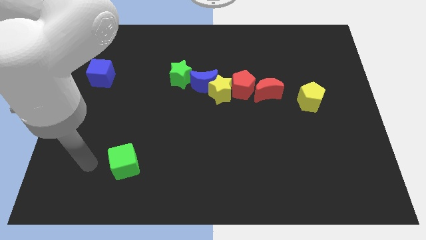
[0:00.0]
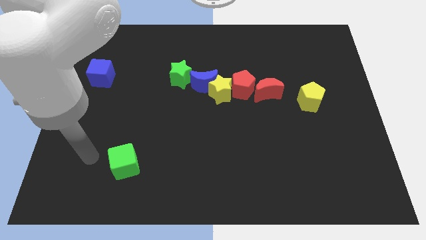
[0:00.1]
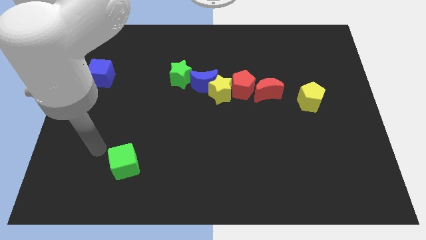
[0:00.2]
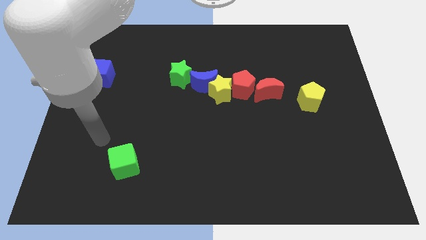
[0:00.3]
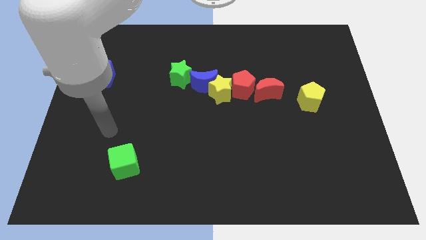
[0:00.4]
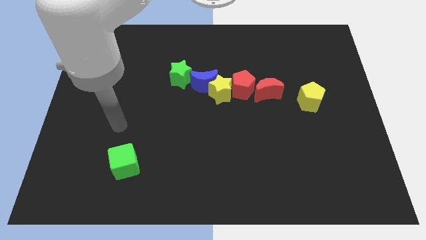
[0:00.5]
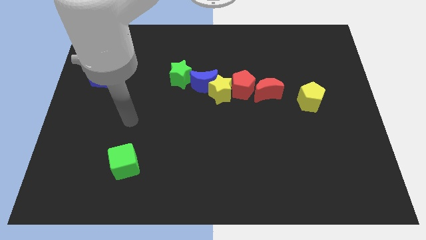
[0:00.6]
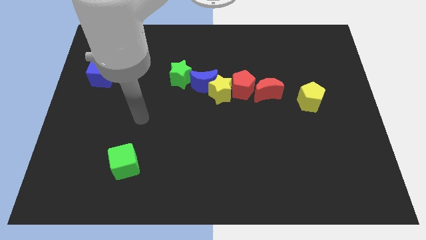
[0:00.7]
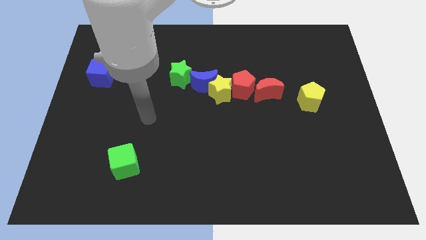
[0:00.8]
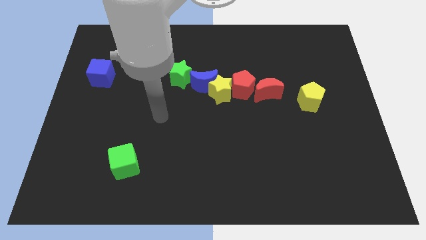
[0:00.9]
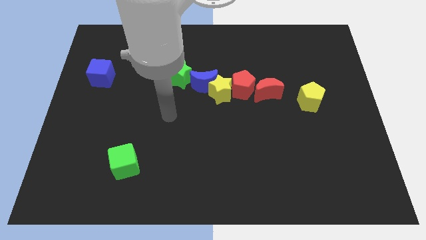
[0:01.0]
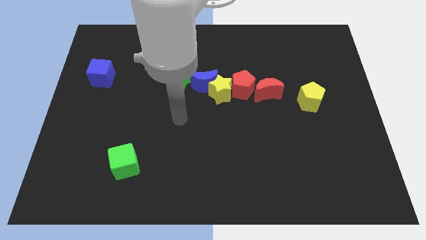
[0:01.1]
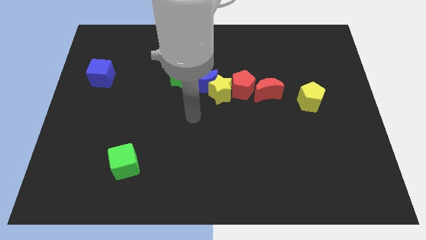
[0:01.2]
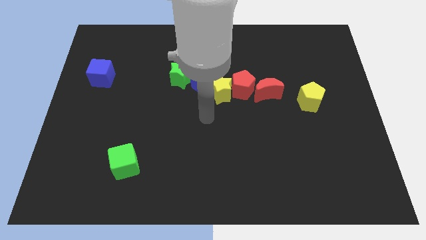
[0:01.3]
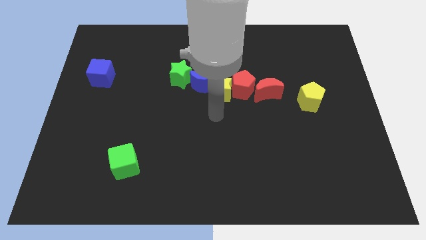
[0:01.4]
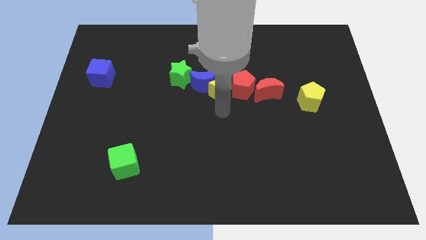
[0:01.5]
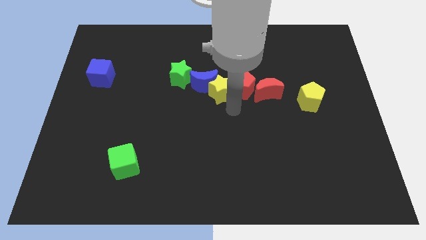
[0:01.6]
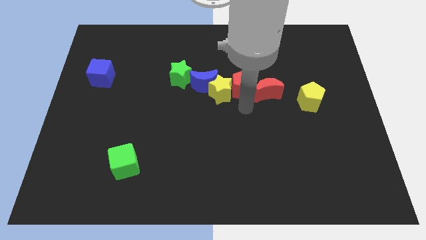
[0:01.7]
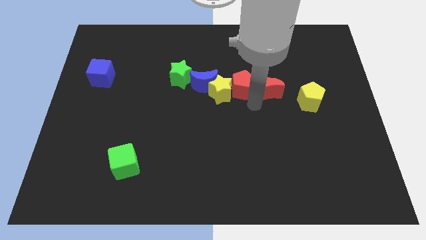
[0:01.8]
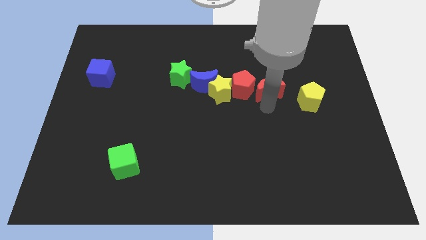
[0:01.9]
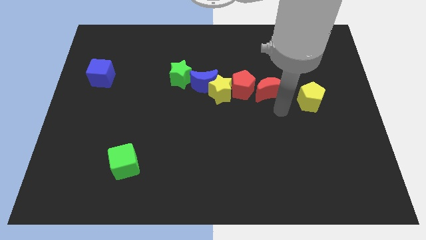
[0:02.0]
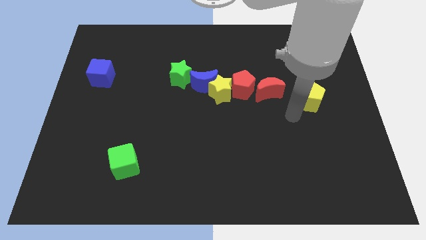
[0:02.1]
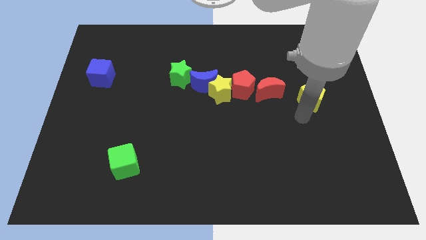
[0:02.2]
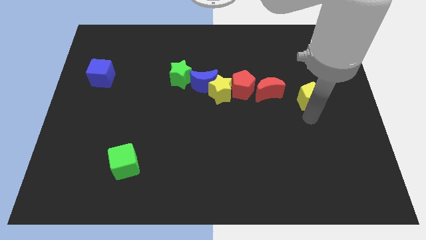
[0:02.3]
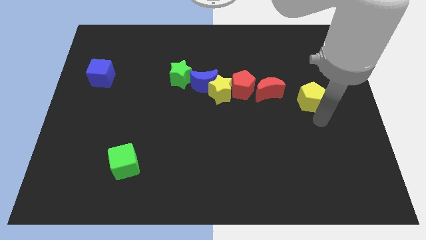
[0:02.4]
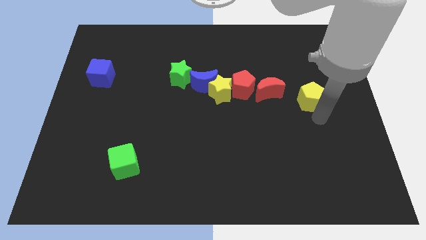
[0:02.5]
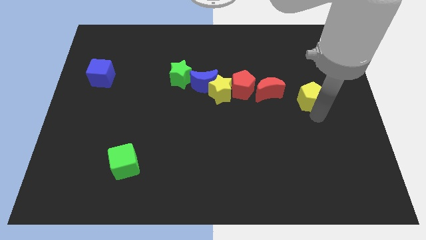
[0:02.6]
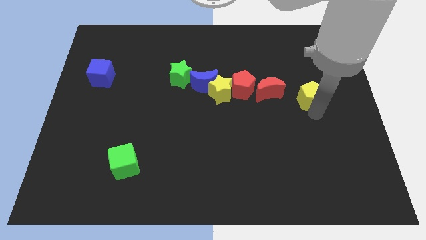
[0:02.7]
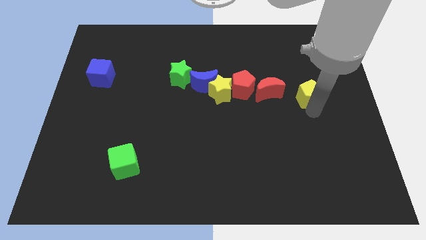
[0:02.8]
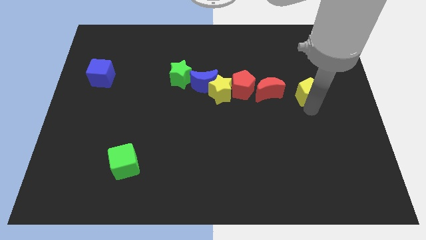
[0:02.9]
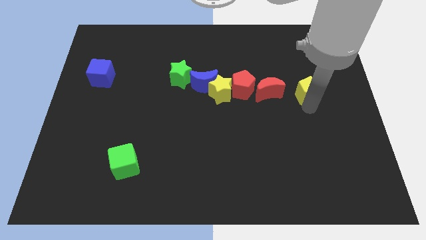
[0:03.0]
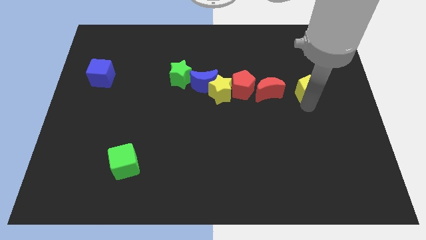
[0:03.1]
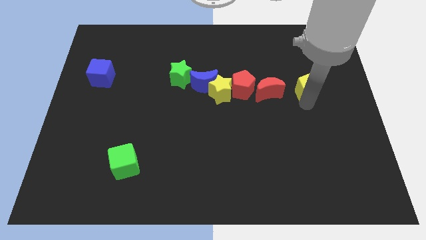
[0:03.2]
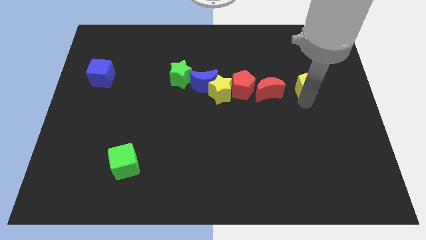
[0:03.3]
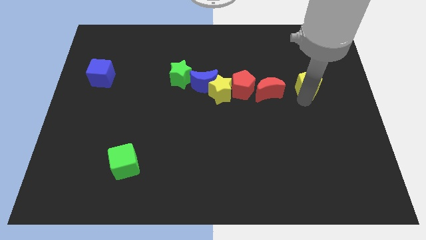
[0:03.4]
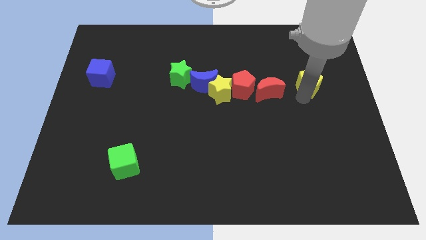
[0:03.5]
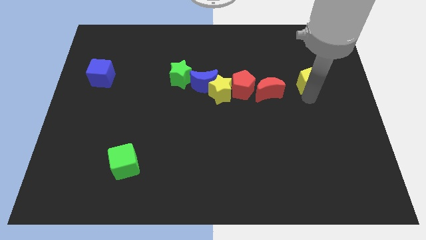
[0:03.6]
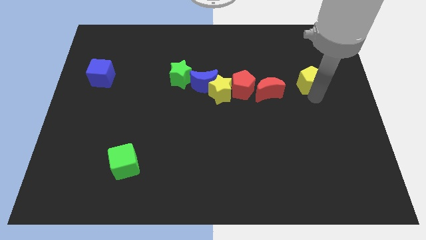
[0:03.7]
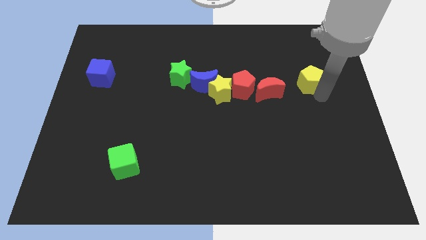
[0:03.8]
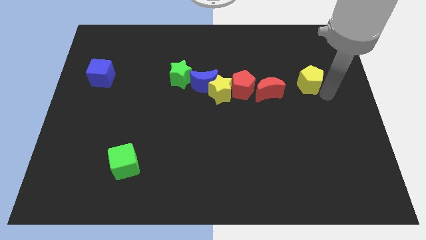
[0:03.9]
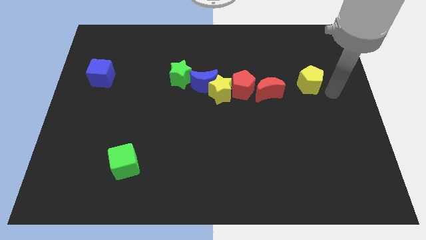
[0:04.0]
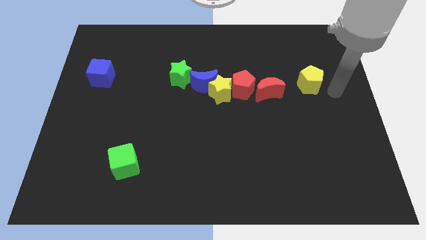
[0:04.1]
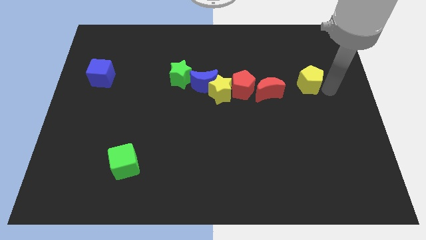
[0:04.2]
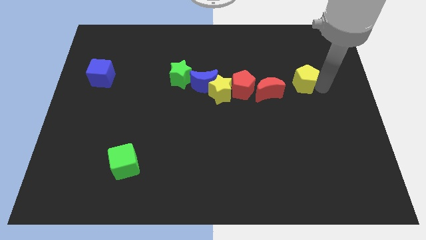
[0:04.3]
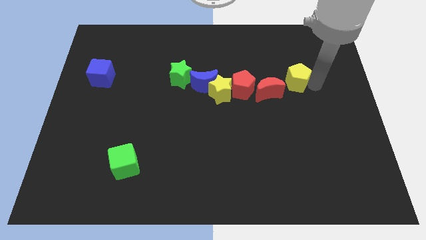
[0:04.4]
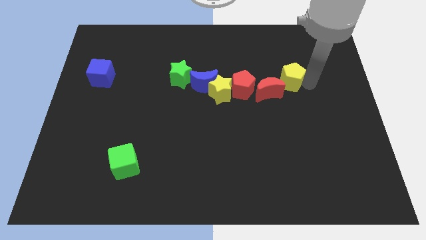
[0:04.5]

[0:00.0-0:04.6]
move the yellow pentagon a little bit up and then left

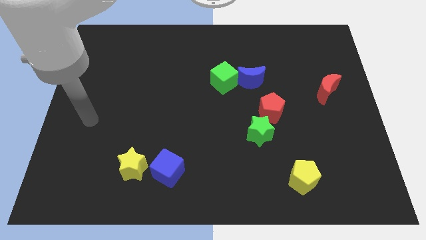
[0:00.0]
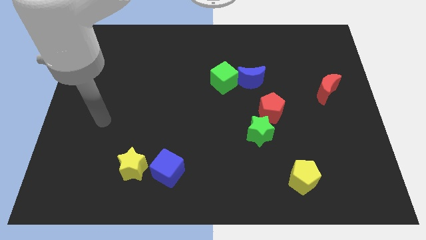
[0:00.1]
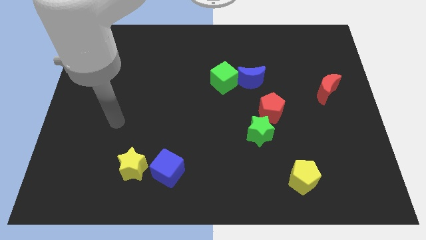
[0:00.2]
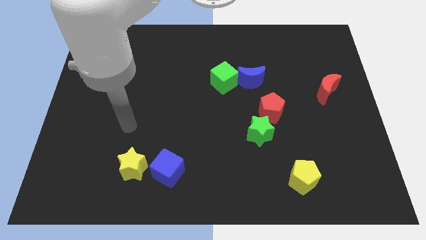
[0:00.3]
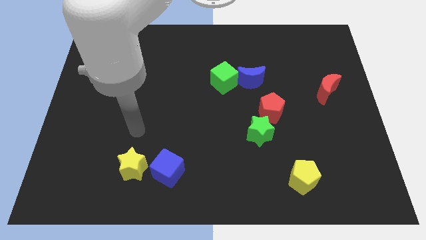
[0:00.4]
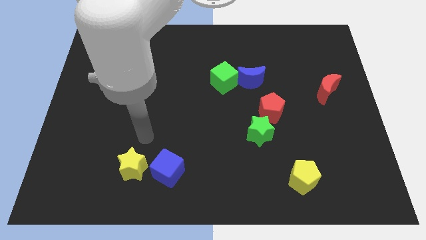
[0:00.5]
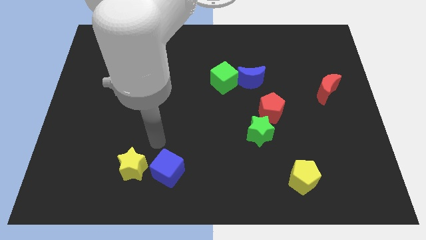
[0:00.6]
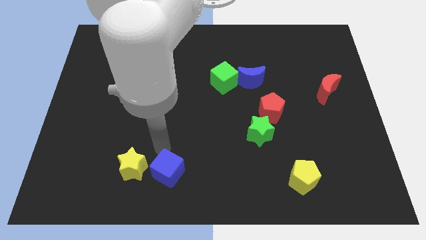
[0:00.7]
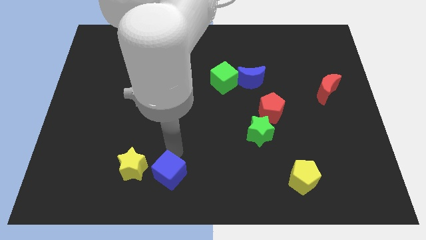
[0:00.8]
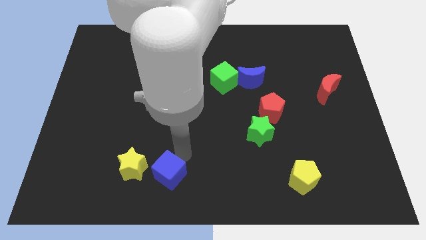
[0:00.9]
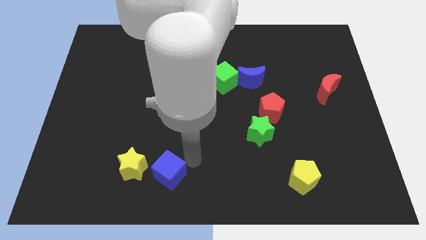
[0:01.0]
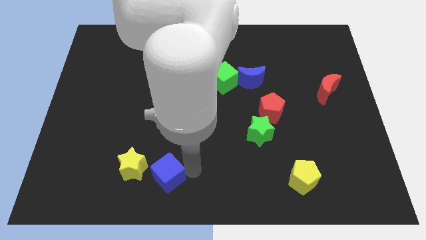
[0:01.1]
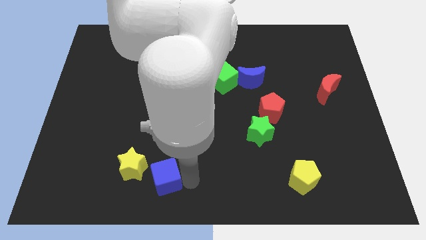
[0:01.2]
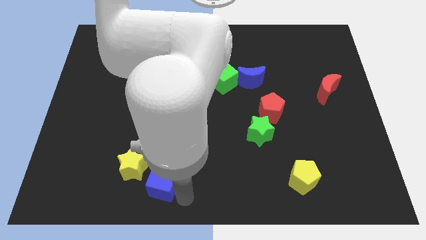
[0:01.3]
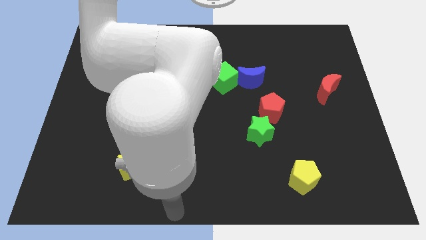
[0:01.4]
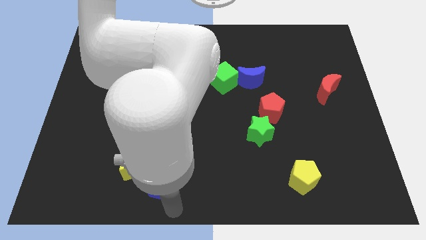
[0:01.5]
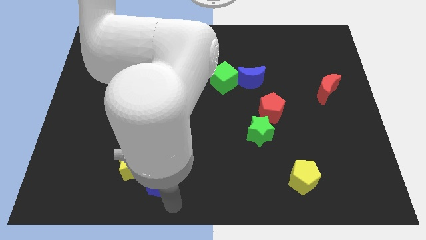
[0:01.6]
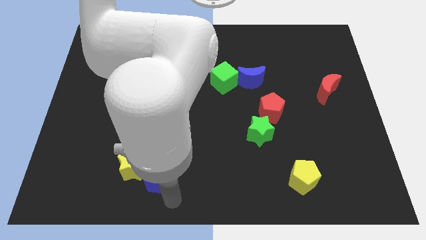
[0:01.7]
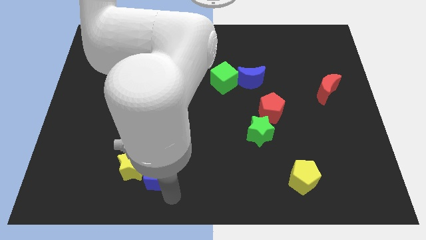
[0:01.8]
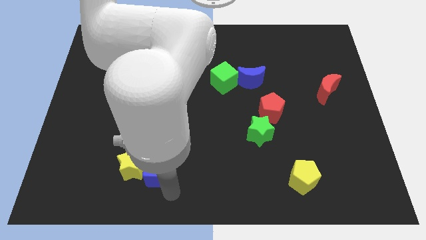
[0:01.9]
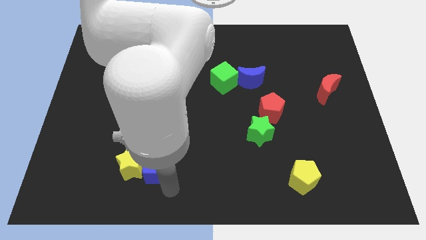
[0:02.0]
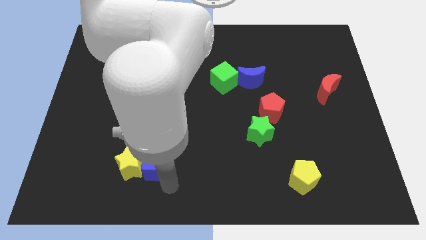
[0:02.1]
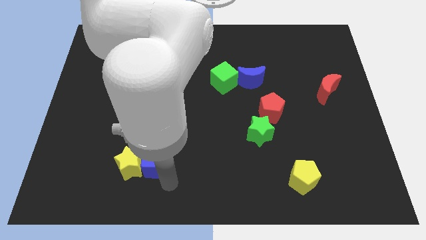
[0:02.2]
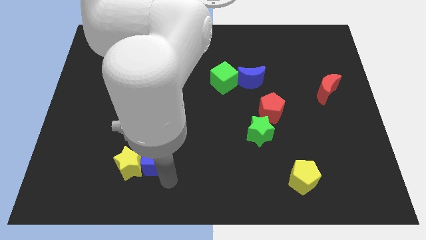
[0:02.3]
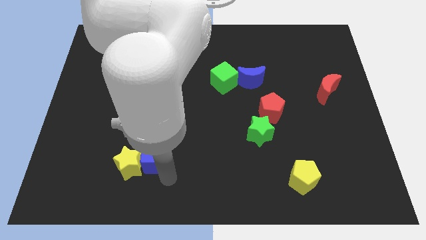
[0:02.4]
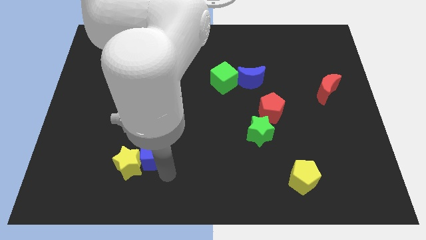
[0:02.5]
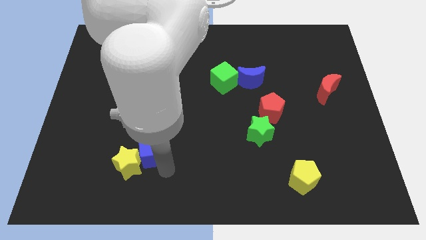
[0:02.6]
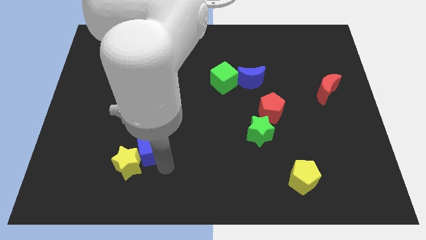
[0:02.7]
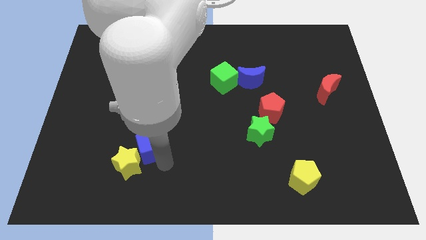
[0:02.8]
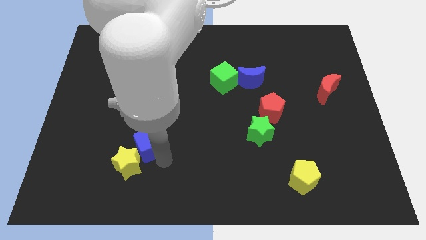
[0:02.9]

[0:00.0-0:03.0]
slide the blue cube up and left a little bit

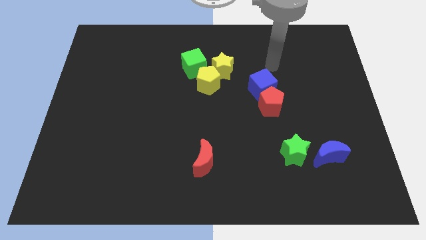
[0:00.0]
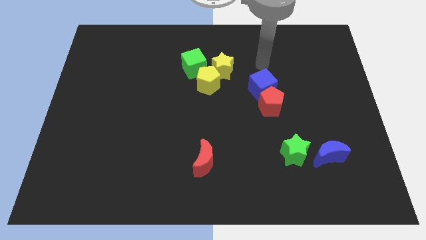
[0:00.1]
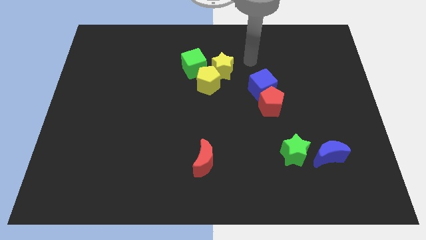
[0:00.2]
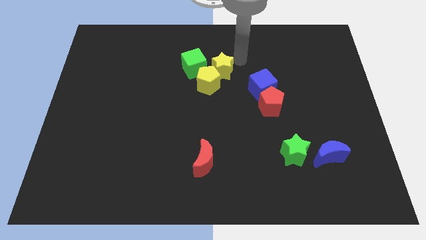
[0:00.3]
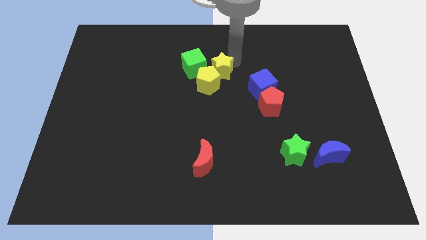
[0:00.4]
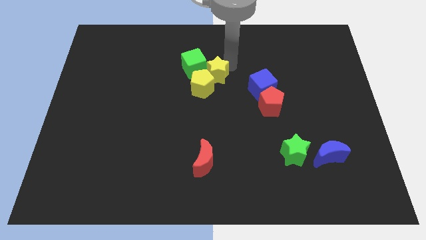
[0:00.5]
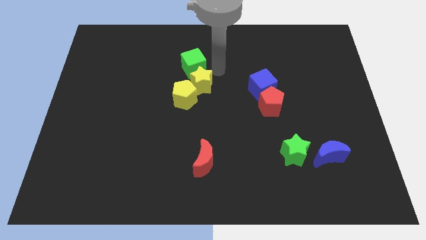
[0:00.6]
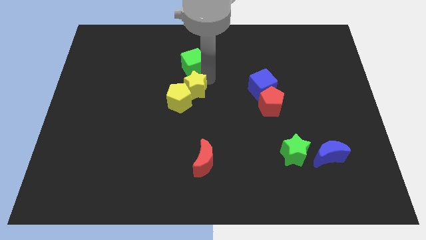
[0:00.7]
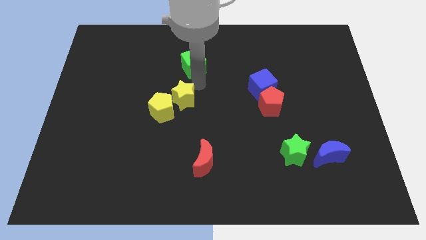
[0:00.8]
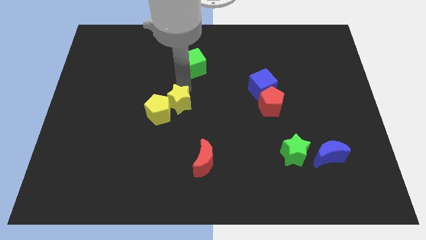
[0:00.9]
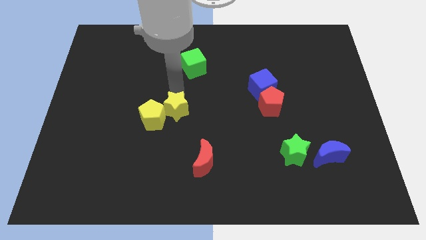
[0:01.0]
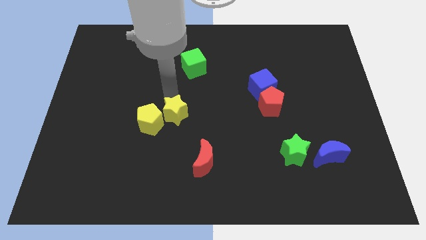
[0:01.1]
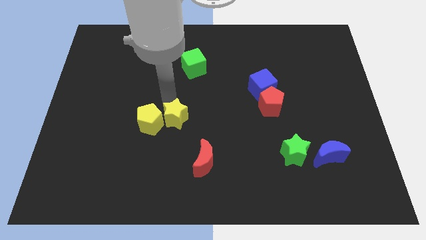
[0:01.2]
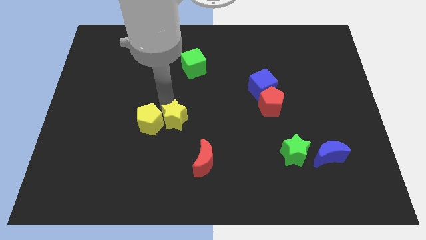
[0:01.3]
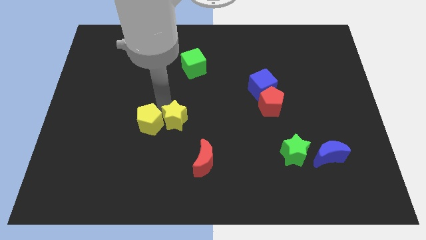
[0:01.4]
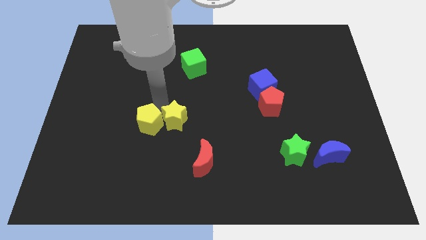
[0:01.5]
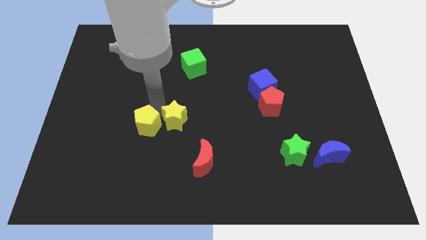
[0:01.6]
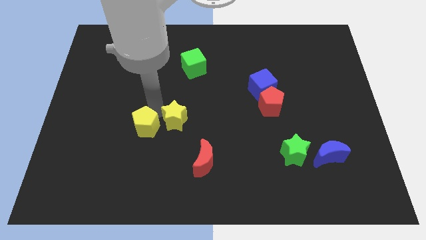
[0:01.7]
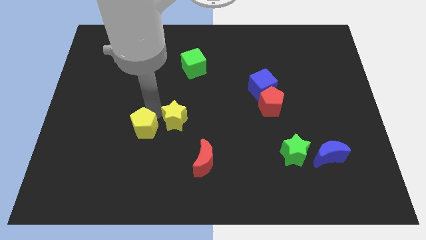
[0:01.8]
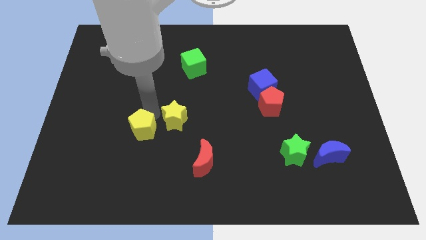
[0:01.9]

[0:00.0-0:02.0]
push the yellow pentagon diagonally downwards and left
